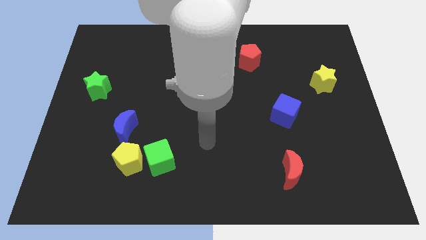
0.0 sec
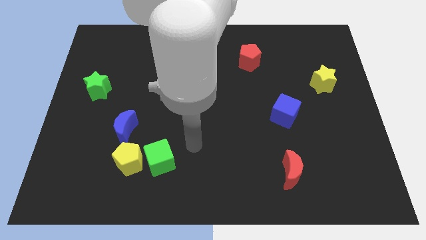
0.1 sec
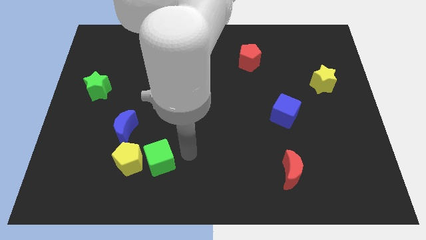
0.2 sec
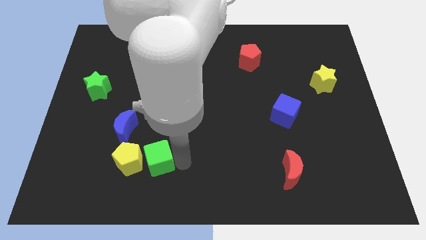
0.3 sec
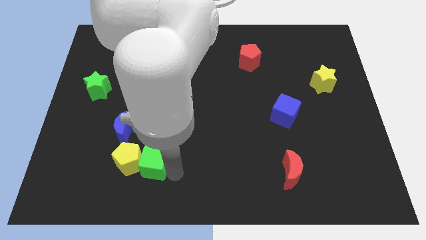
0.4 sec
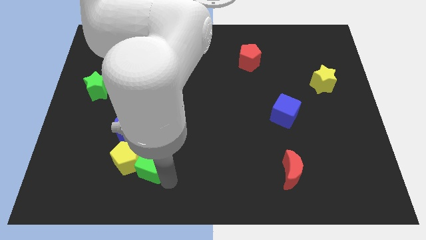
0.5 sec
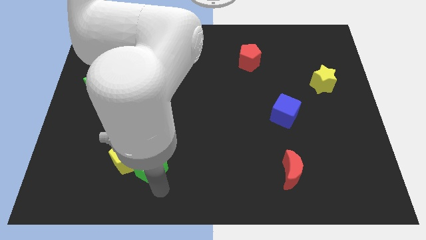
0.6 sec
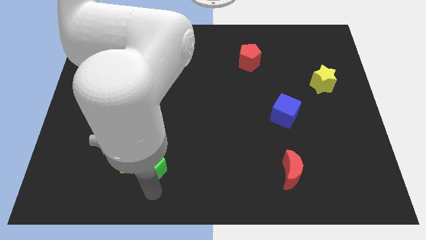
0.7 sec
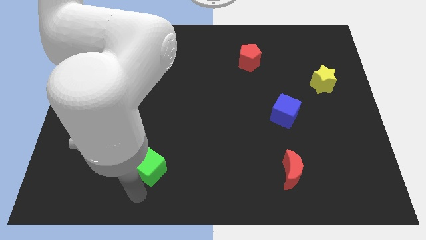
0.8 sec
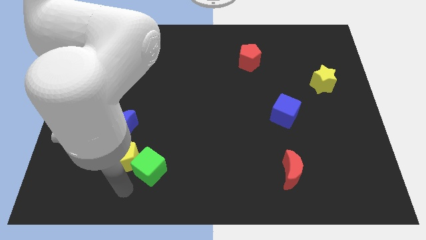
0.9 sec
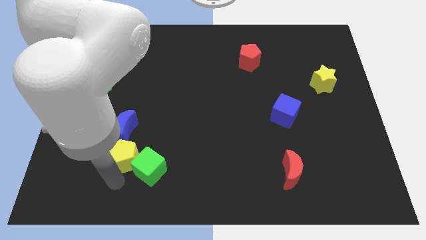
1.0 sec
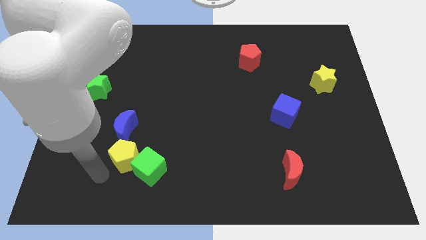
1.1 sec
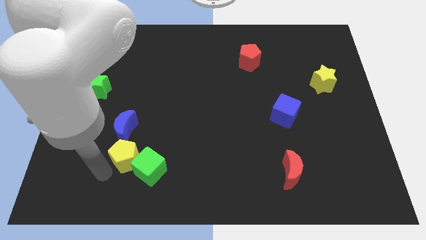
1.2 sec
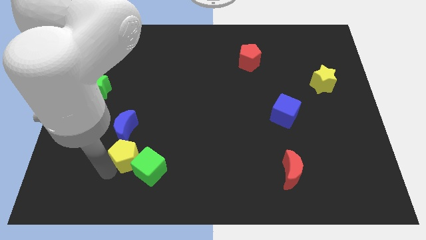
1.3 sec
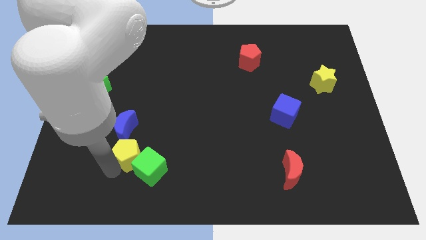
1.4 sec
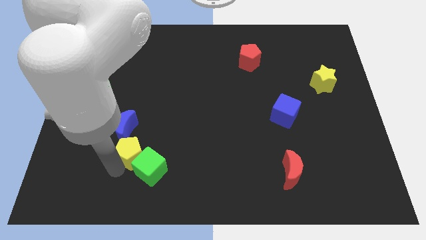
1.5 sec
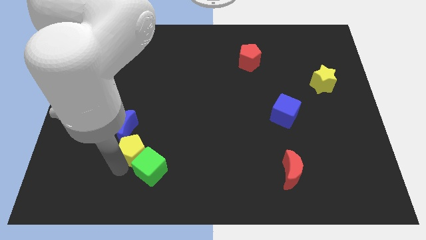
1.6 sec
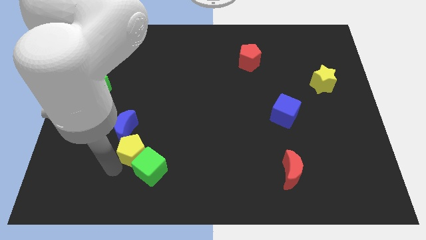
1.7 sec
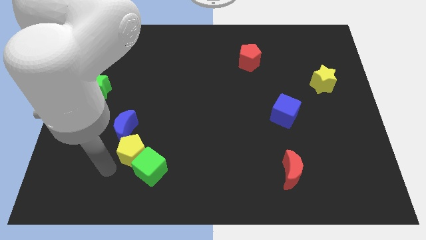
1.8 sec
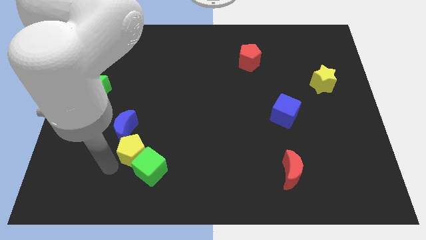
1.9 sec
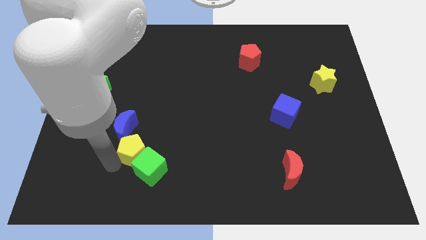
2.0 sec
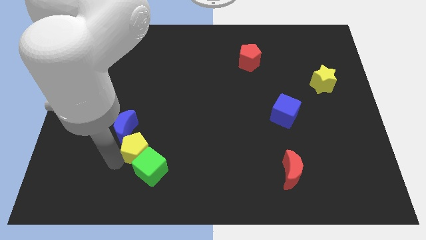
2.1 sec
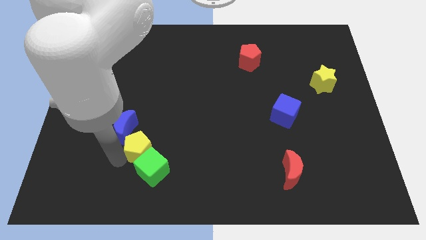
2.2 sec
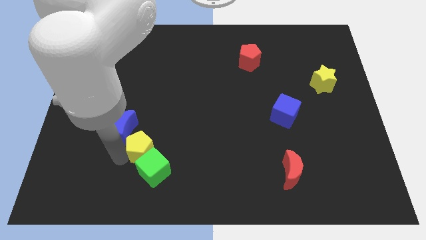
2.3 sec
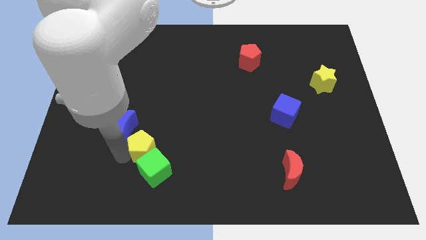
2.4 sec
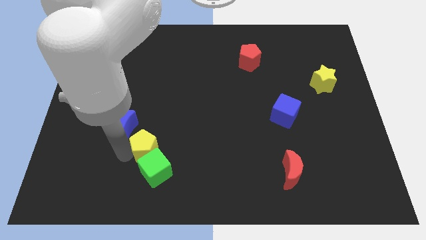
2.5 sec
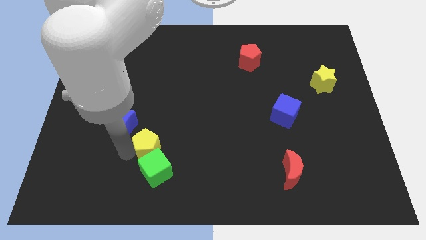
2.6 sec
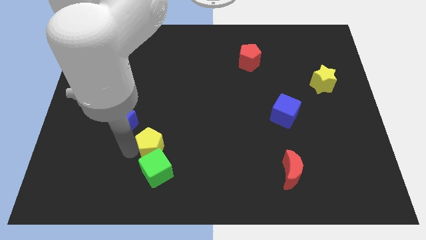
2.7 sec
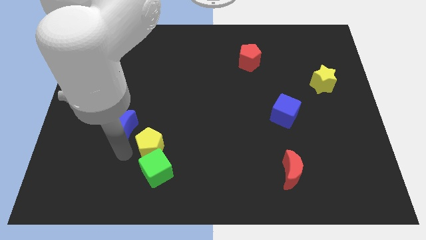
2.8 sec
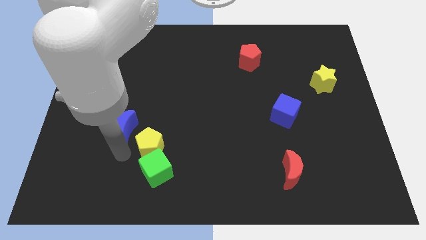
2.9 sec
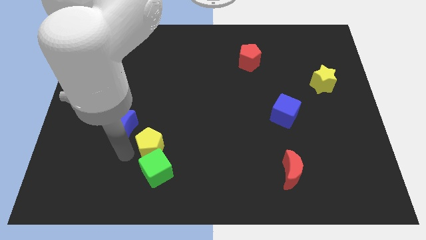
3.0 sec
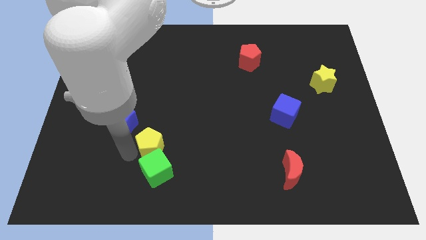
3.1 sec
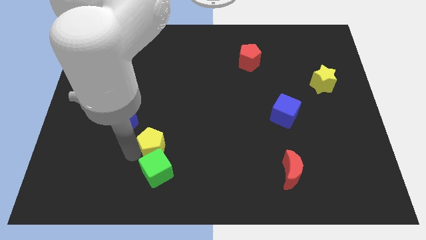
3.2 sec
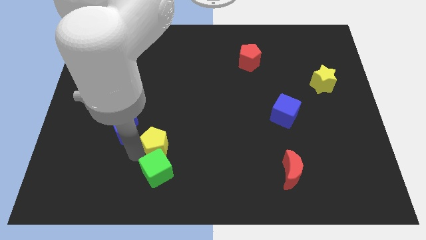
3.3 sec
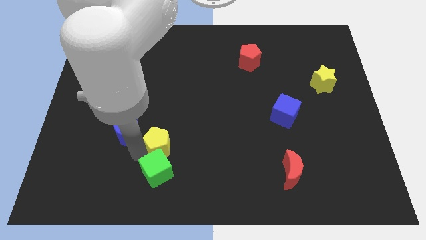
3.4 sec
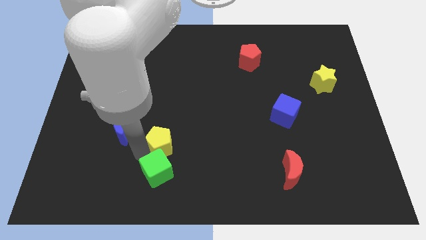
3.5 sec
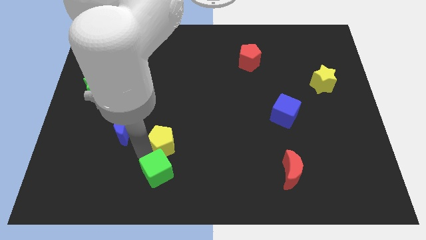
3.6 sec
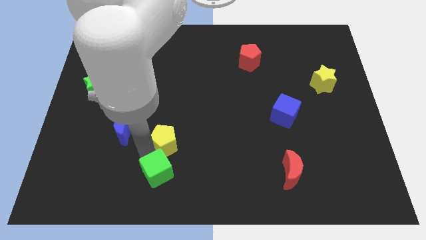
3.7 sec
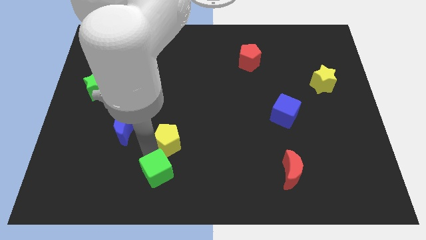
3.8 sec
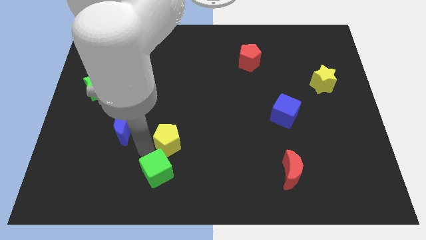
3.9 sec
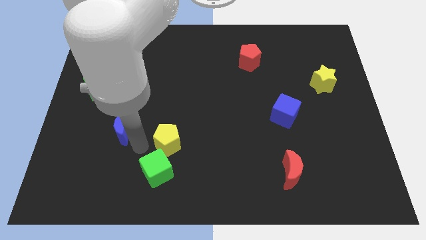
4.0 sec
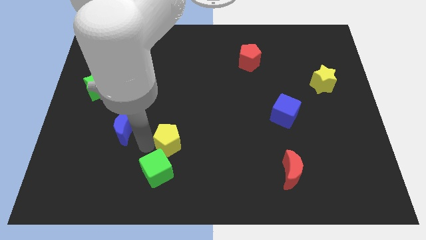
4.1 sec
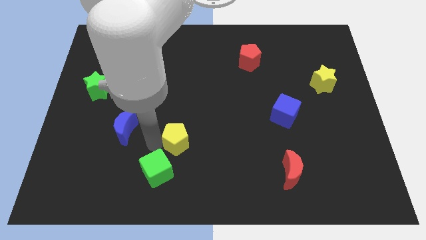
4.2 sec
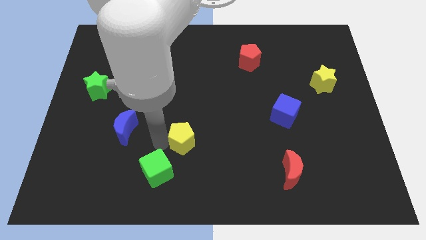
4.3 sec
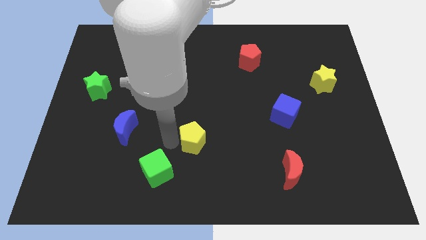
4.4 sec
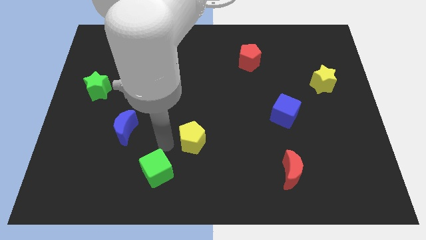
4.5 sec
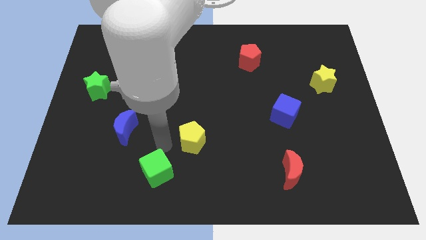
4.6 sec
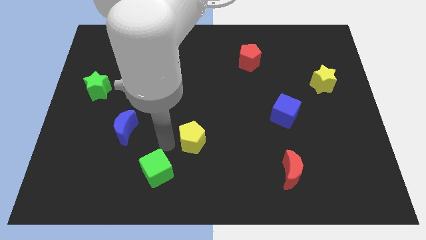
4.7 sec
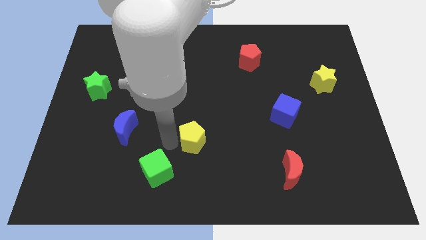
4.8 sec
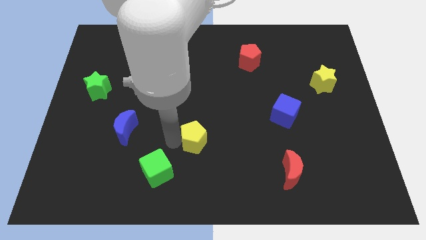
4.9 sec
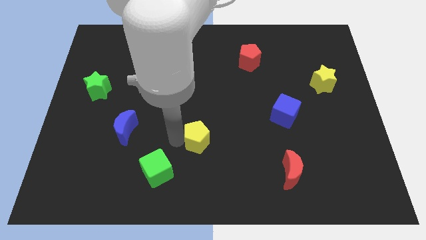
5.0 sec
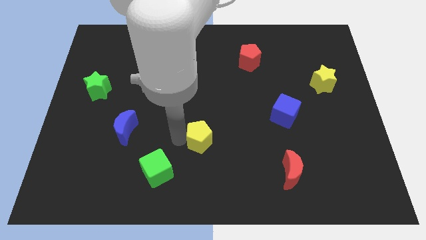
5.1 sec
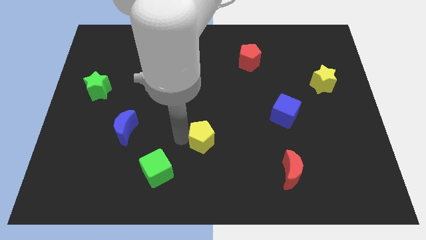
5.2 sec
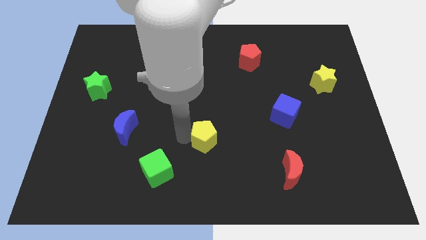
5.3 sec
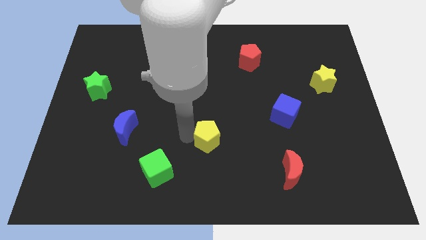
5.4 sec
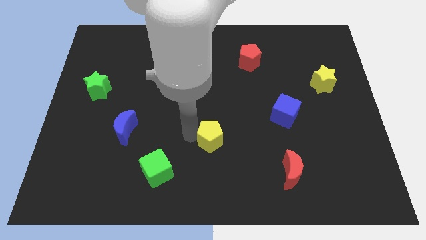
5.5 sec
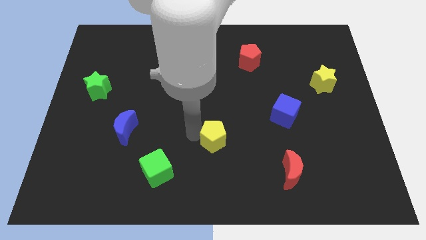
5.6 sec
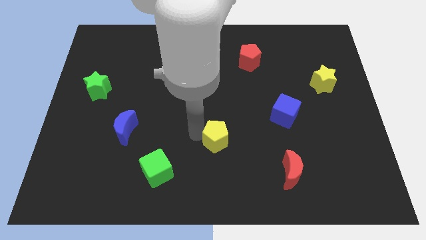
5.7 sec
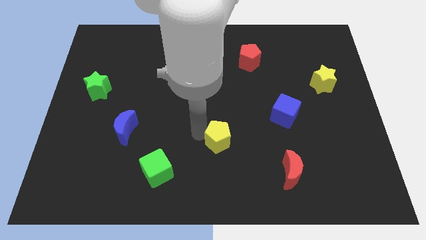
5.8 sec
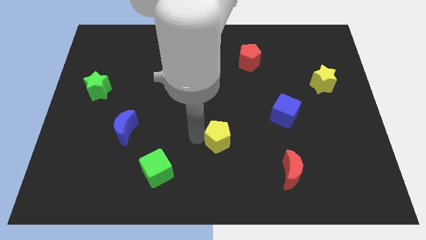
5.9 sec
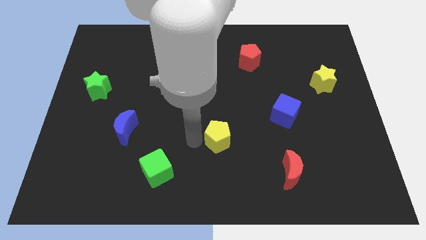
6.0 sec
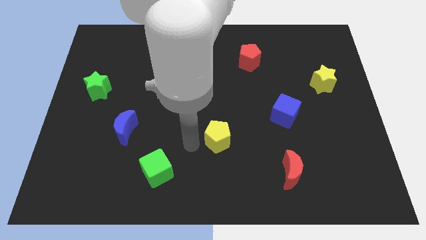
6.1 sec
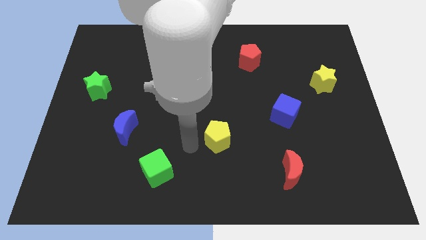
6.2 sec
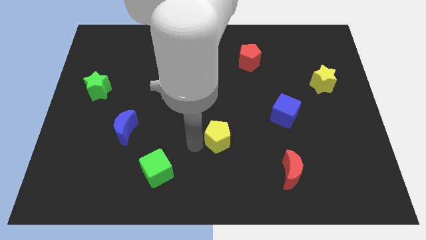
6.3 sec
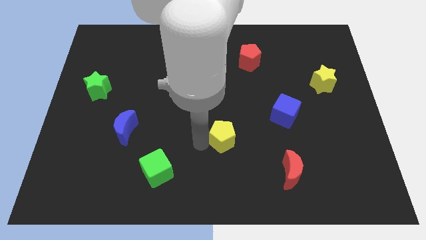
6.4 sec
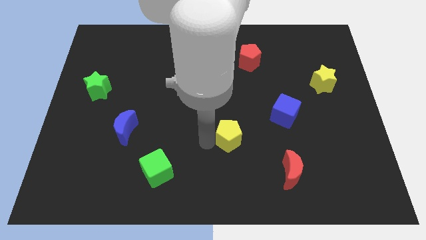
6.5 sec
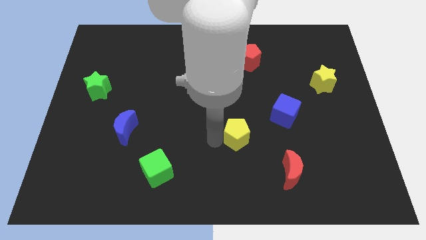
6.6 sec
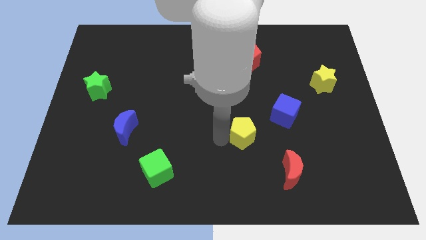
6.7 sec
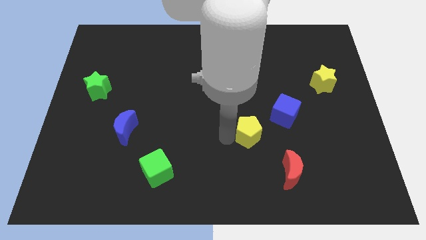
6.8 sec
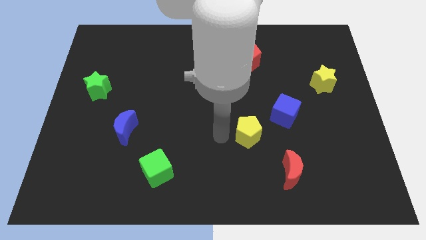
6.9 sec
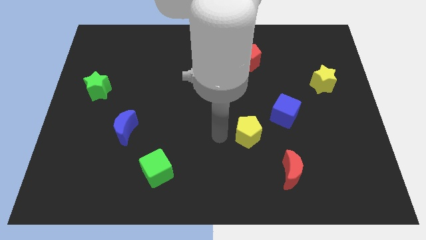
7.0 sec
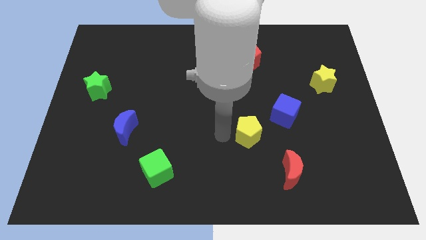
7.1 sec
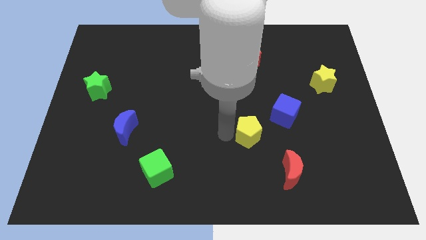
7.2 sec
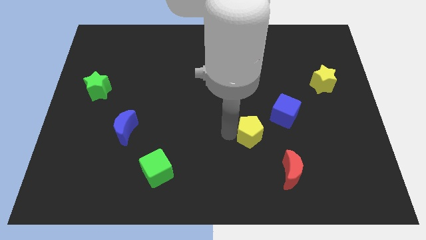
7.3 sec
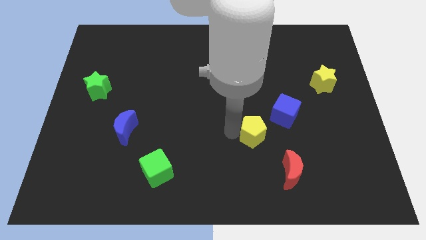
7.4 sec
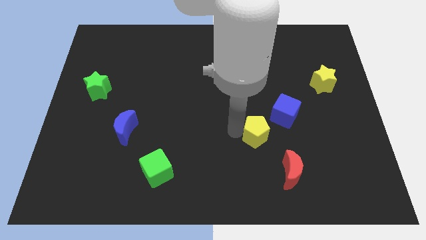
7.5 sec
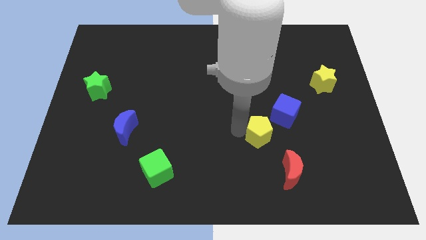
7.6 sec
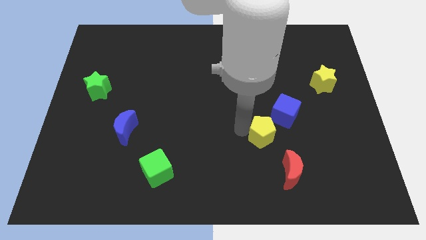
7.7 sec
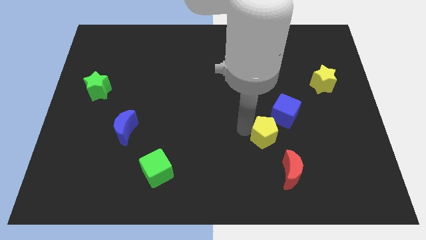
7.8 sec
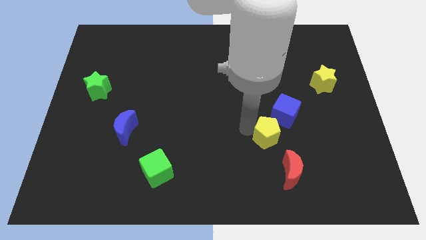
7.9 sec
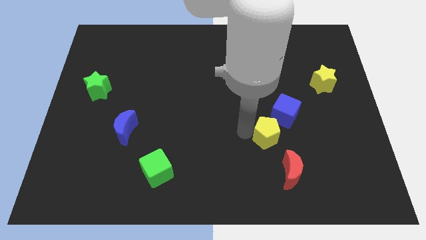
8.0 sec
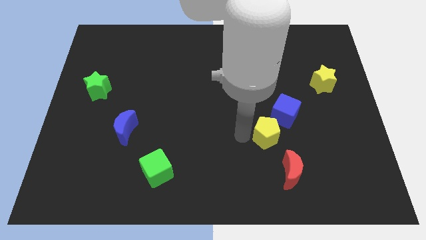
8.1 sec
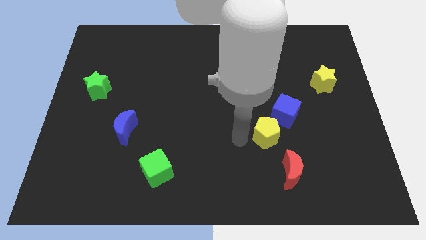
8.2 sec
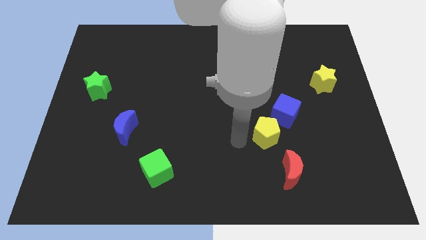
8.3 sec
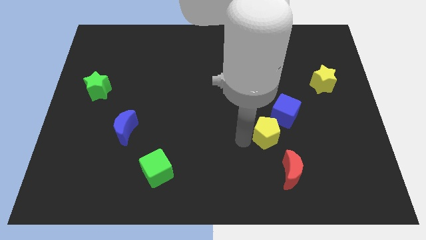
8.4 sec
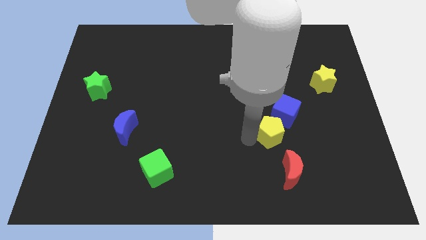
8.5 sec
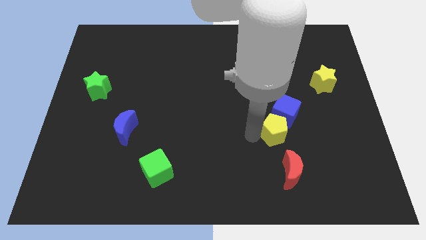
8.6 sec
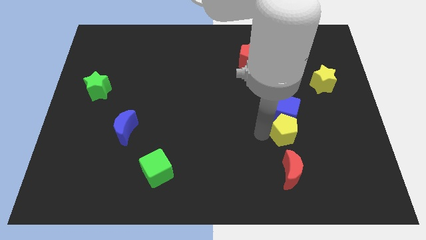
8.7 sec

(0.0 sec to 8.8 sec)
push the yellow pentagon to the bottom right of the blue cube
